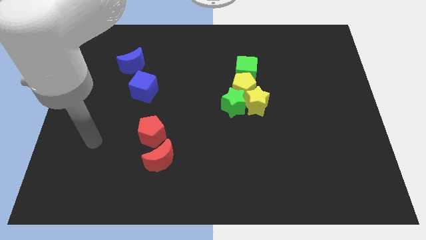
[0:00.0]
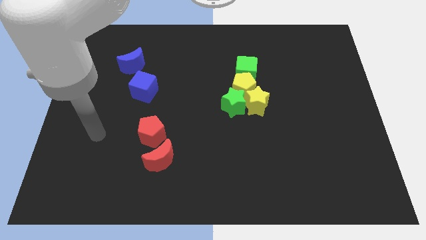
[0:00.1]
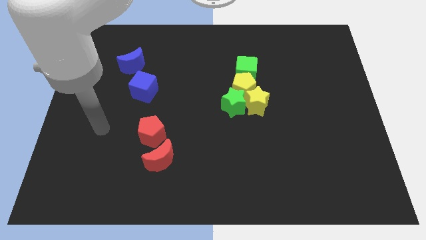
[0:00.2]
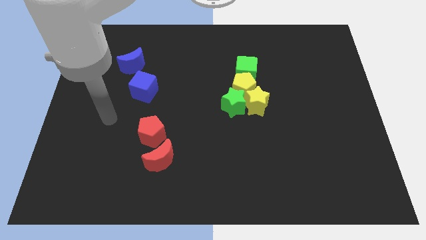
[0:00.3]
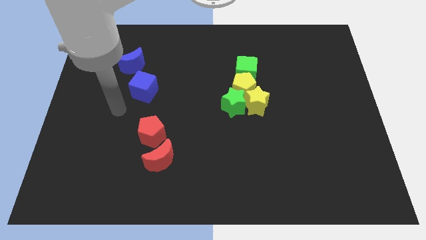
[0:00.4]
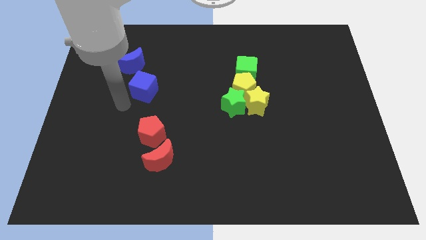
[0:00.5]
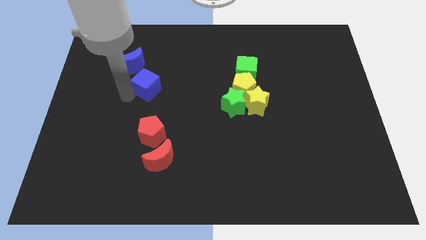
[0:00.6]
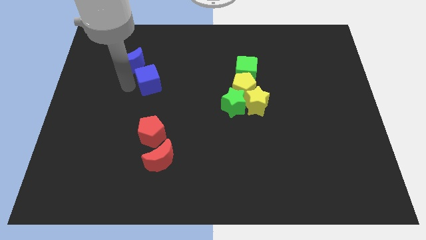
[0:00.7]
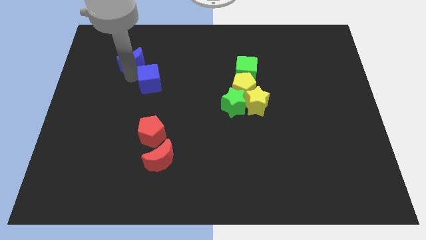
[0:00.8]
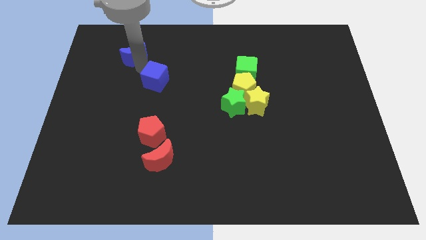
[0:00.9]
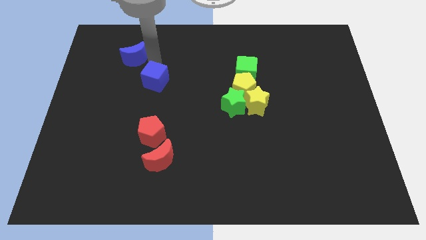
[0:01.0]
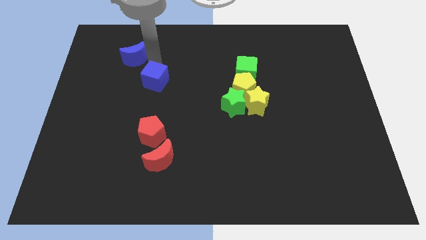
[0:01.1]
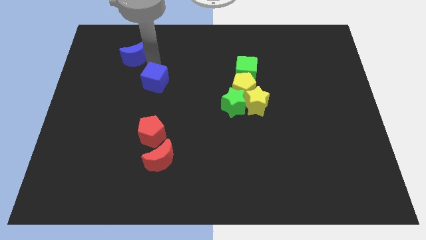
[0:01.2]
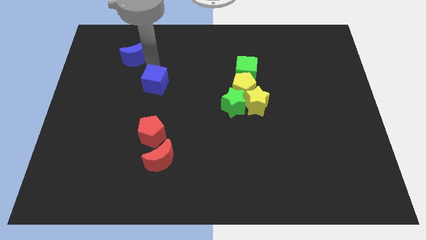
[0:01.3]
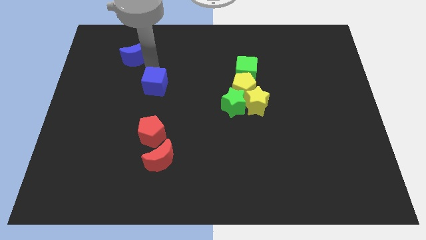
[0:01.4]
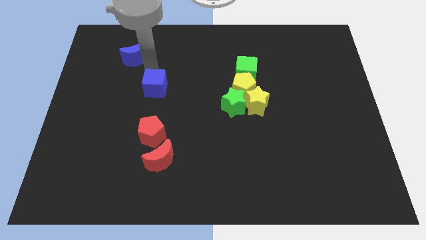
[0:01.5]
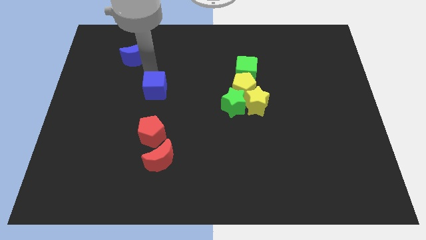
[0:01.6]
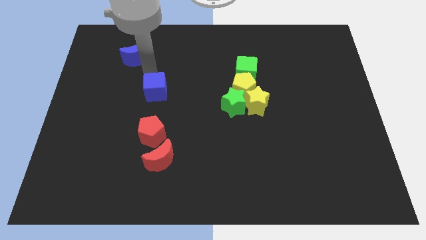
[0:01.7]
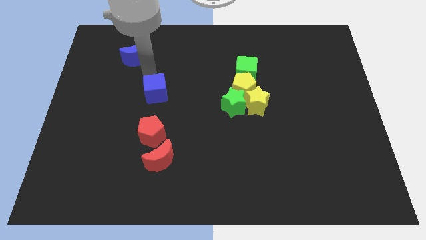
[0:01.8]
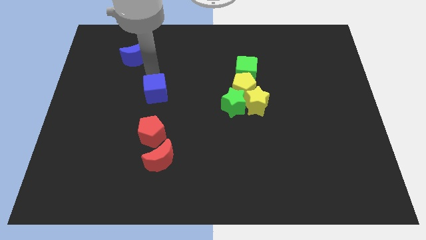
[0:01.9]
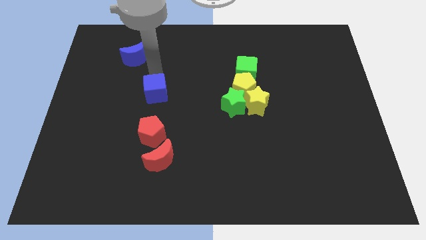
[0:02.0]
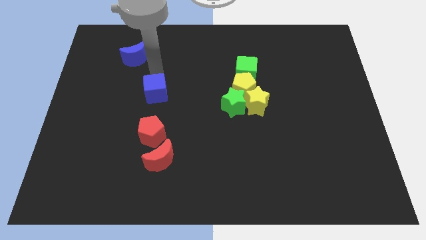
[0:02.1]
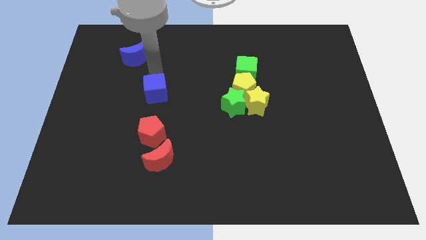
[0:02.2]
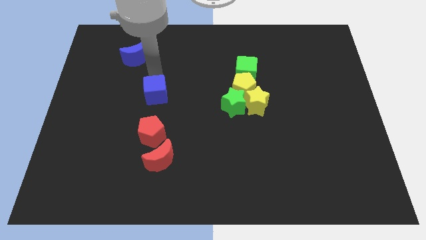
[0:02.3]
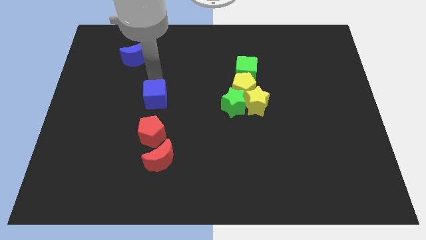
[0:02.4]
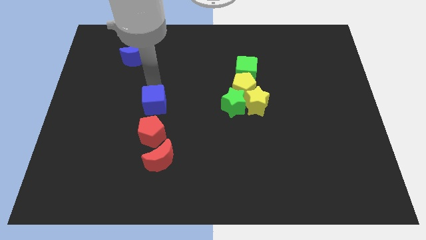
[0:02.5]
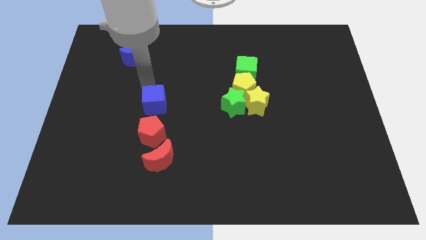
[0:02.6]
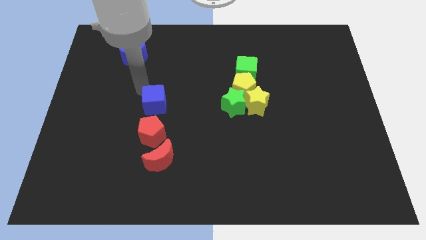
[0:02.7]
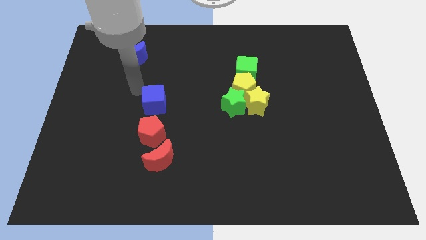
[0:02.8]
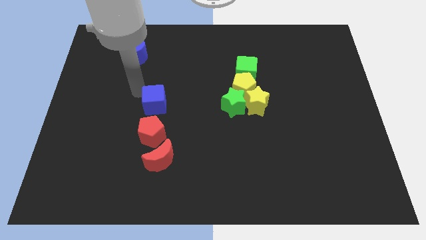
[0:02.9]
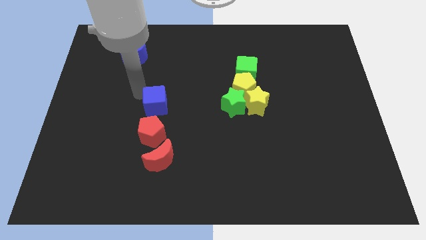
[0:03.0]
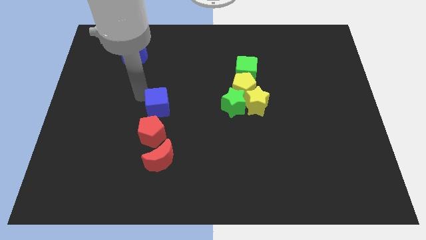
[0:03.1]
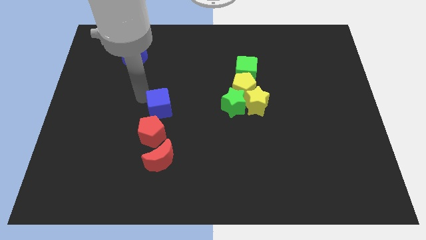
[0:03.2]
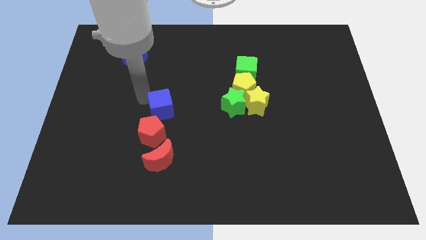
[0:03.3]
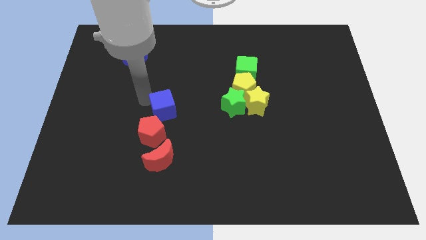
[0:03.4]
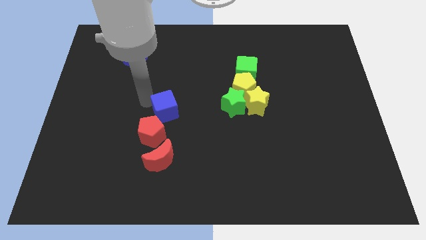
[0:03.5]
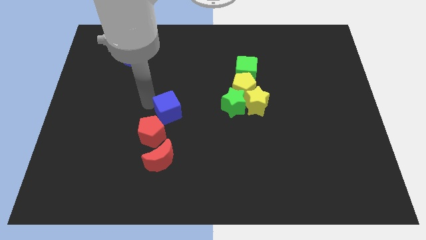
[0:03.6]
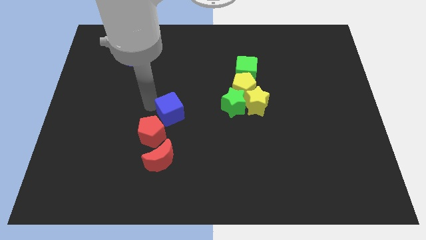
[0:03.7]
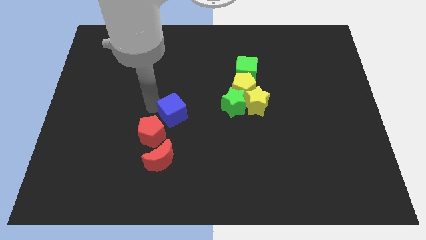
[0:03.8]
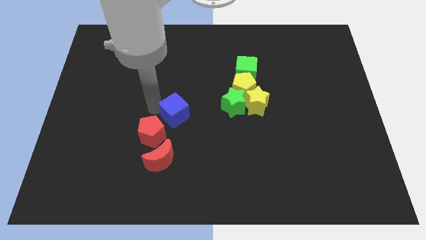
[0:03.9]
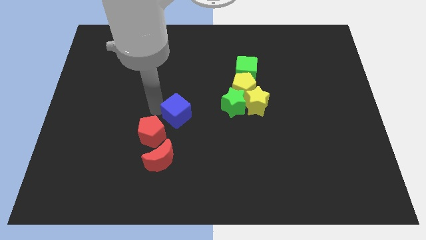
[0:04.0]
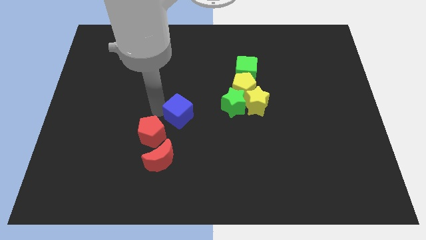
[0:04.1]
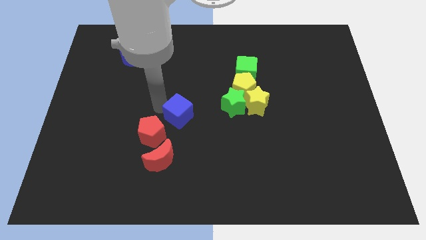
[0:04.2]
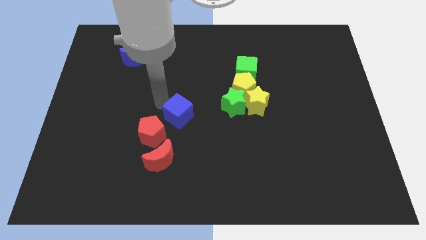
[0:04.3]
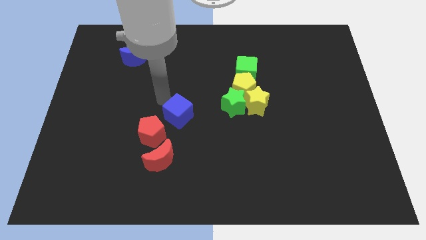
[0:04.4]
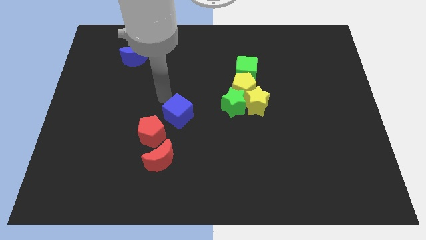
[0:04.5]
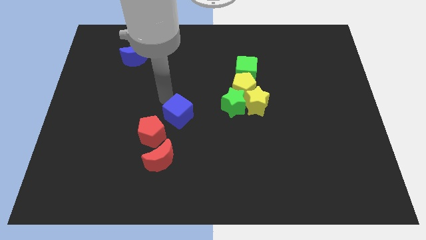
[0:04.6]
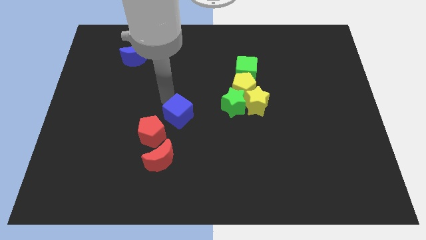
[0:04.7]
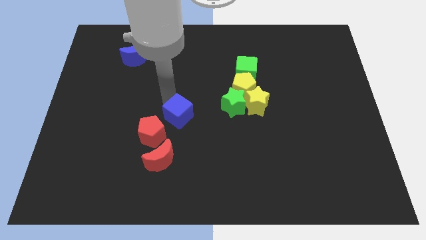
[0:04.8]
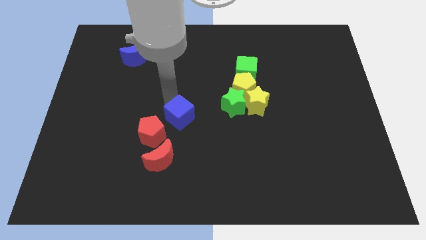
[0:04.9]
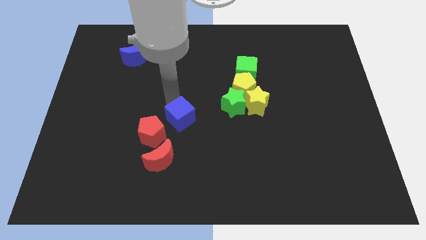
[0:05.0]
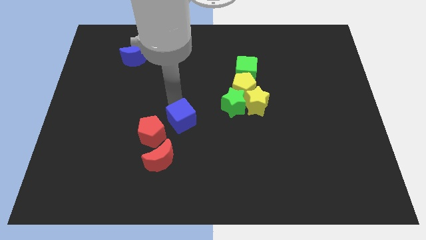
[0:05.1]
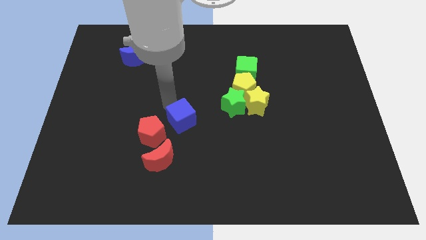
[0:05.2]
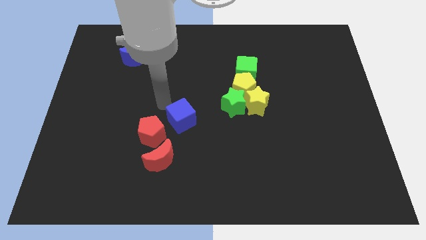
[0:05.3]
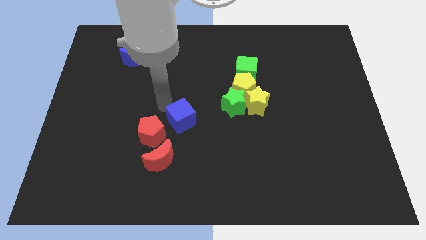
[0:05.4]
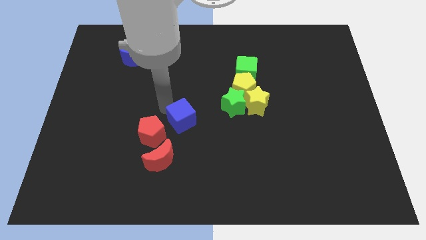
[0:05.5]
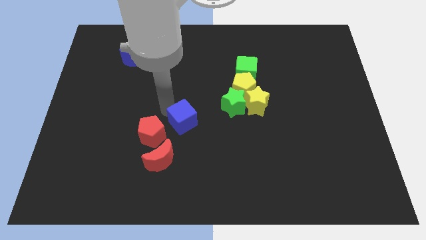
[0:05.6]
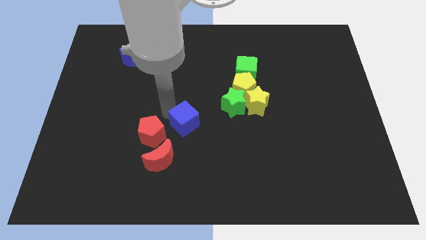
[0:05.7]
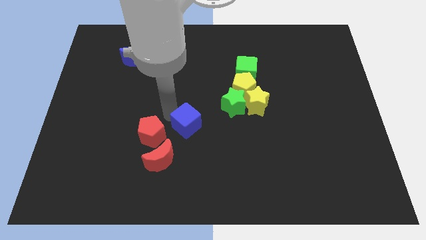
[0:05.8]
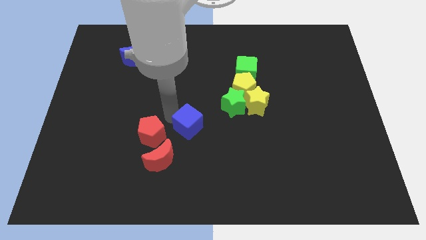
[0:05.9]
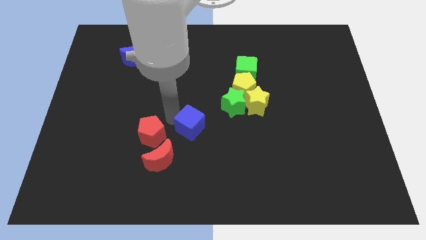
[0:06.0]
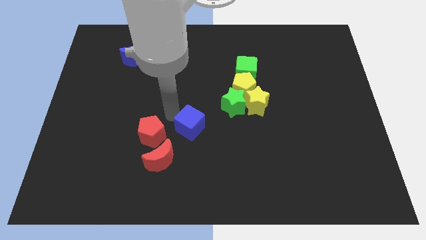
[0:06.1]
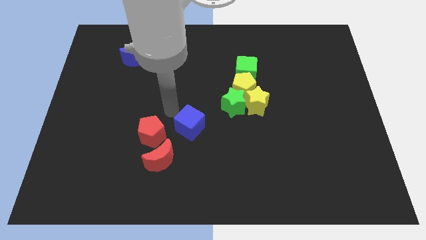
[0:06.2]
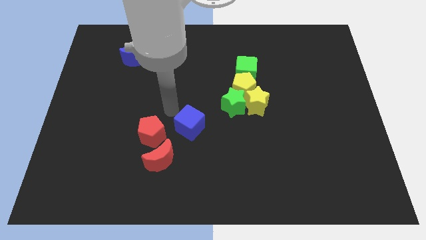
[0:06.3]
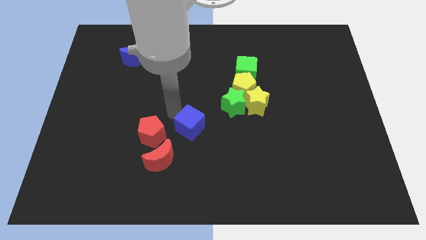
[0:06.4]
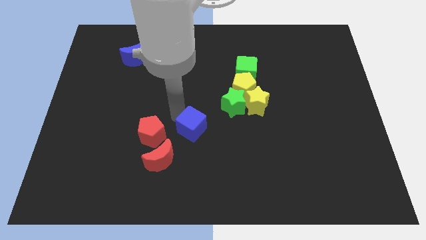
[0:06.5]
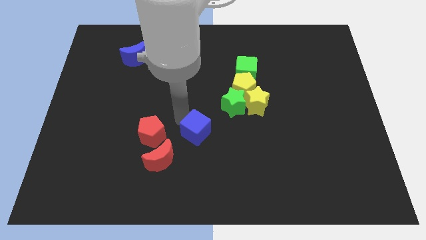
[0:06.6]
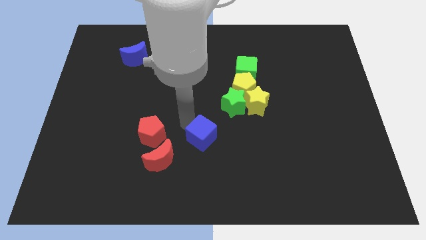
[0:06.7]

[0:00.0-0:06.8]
push the blue cube downwards and to the right diagonally

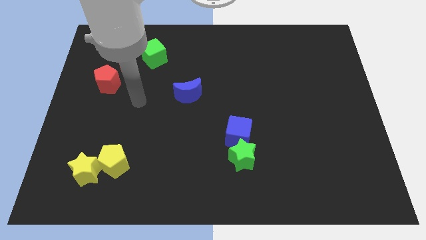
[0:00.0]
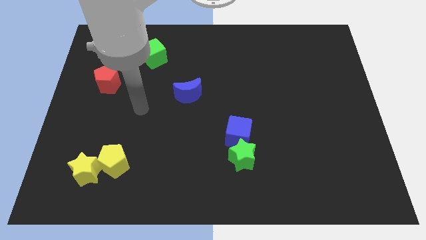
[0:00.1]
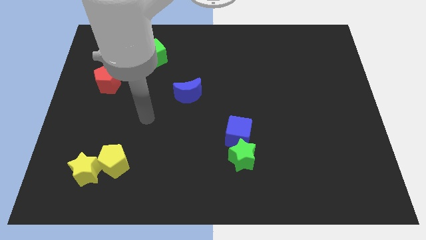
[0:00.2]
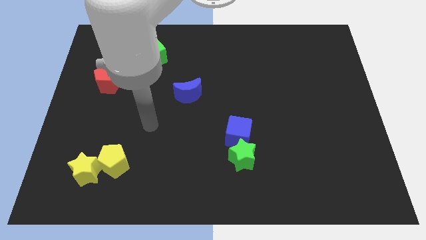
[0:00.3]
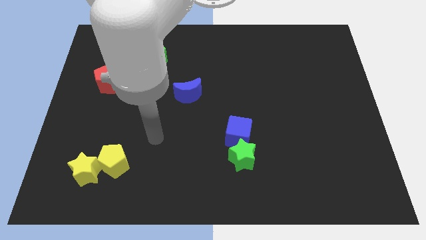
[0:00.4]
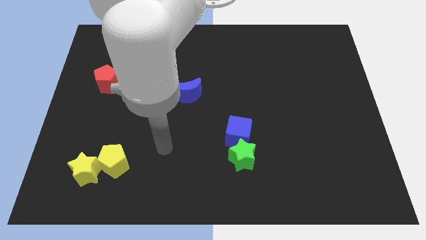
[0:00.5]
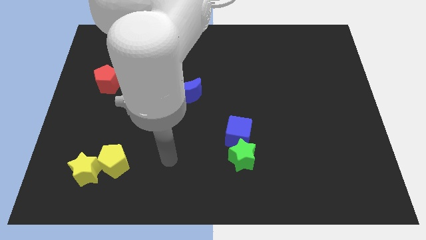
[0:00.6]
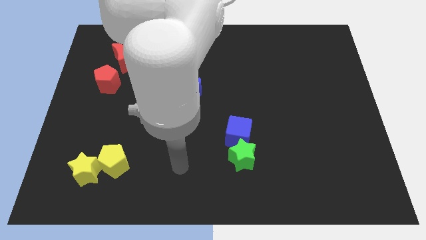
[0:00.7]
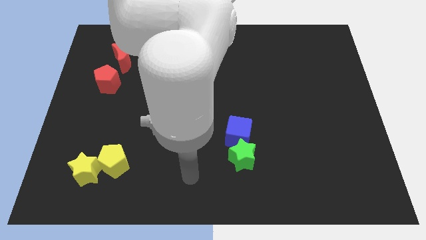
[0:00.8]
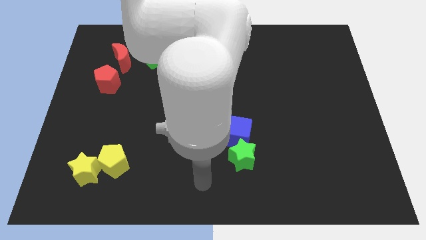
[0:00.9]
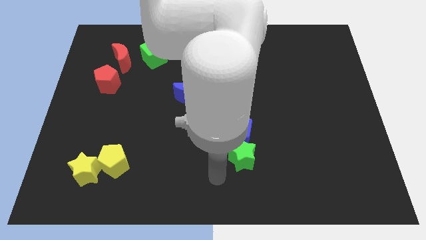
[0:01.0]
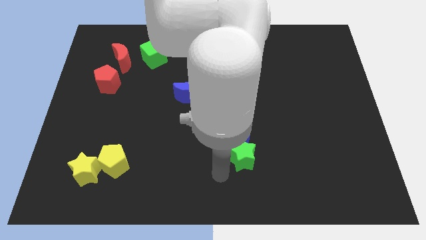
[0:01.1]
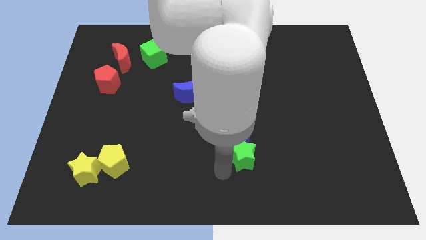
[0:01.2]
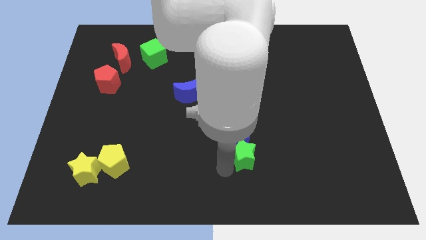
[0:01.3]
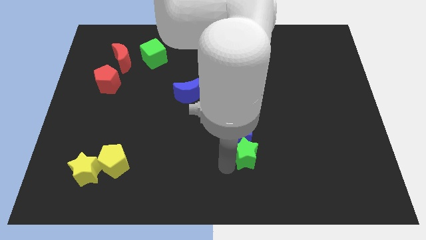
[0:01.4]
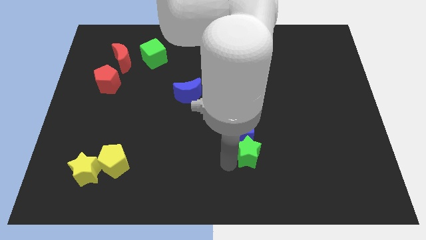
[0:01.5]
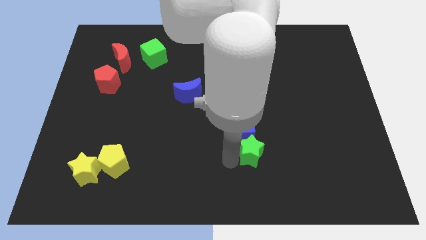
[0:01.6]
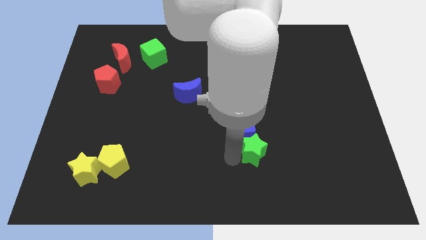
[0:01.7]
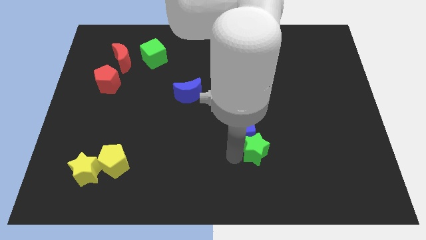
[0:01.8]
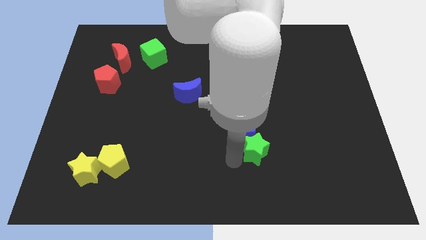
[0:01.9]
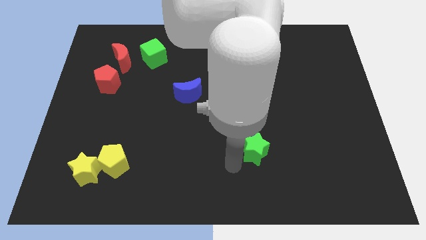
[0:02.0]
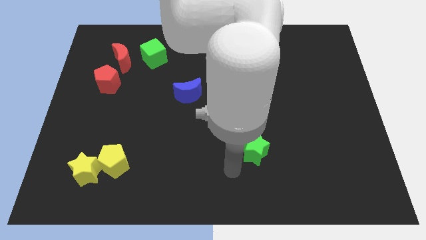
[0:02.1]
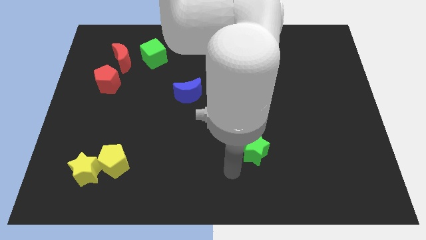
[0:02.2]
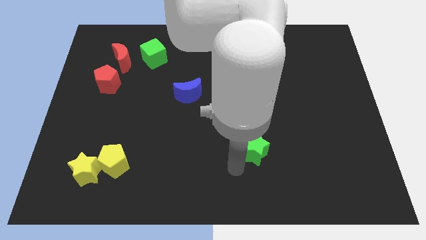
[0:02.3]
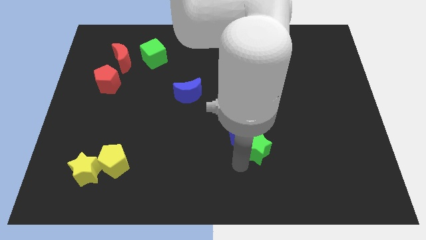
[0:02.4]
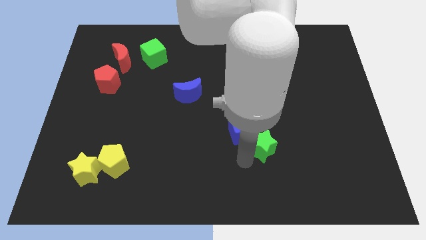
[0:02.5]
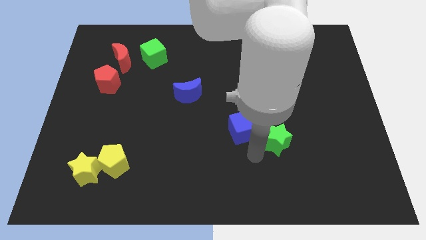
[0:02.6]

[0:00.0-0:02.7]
push the green star a little up and then to the right
